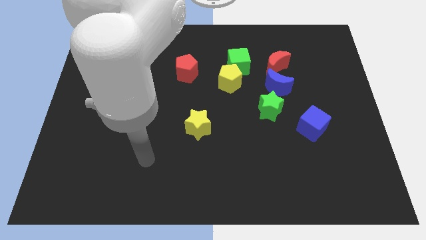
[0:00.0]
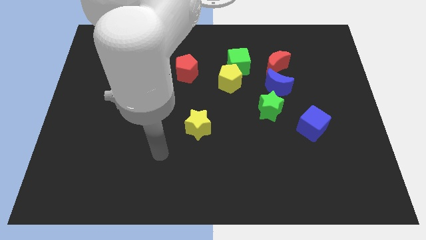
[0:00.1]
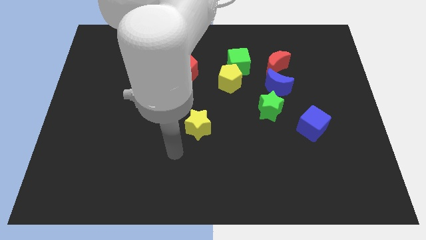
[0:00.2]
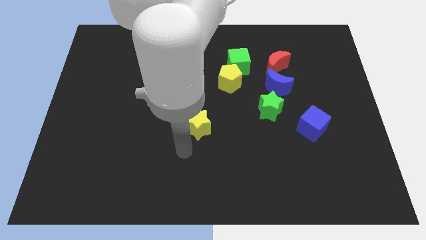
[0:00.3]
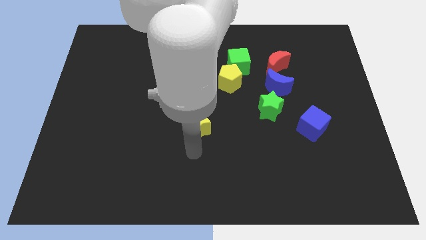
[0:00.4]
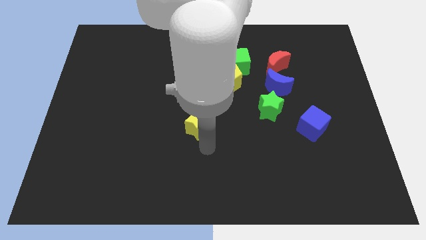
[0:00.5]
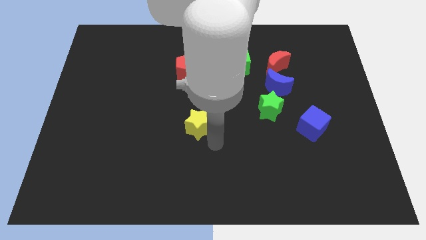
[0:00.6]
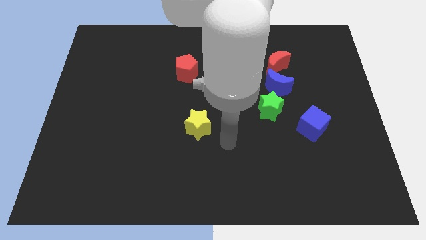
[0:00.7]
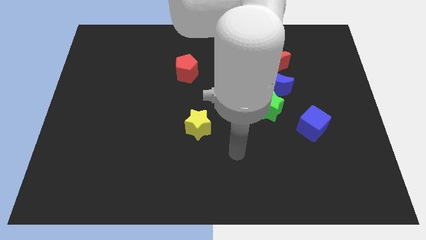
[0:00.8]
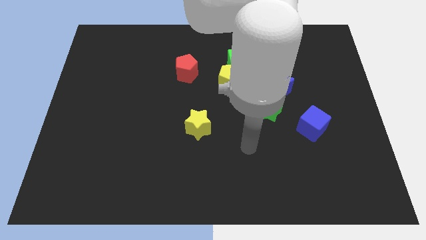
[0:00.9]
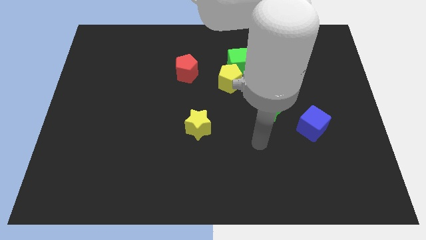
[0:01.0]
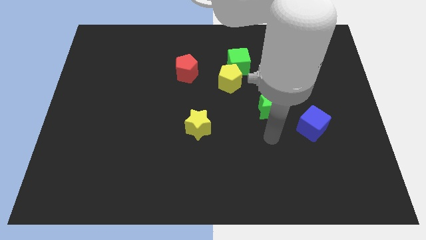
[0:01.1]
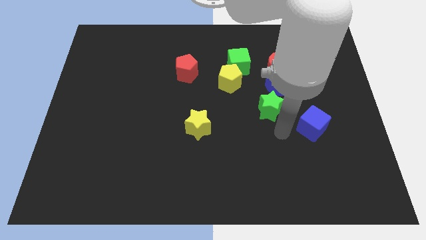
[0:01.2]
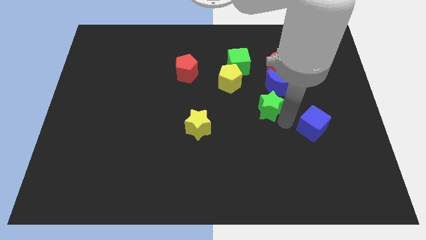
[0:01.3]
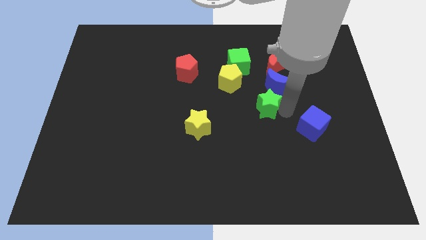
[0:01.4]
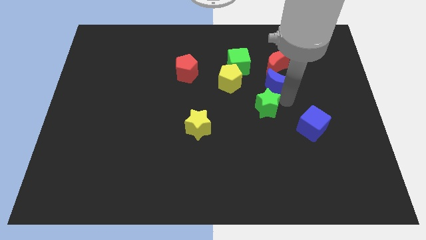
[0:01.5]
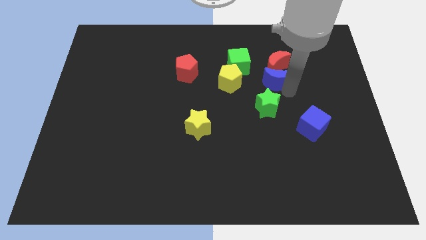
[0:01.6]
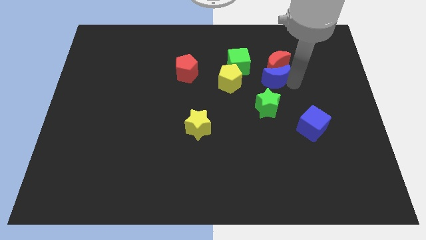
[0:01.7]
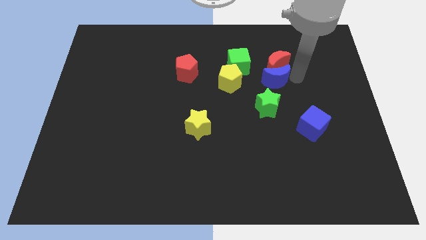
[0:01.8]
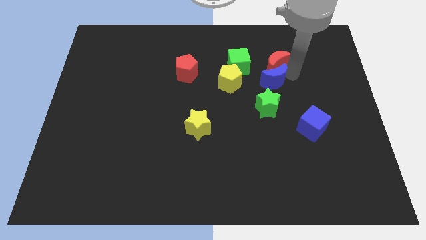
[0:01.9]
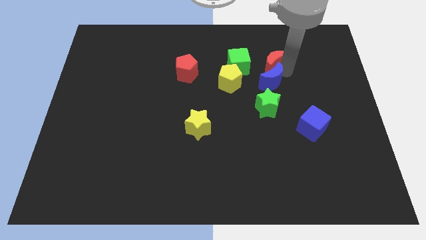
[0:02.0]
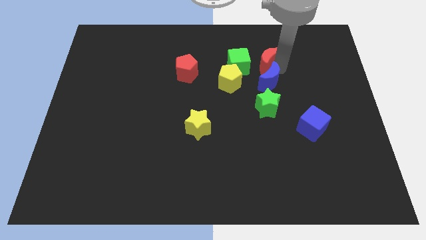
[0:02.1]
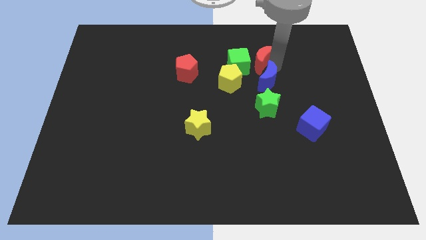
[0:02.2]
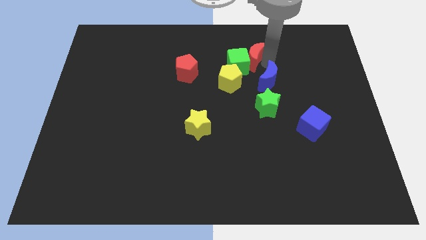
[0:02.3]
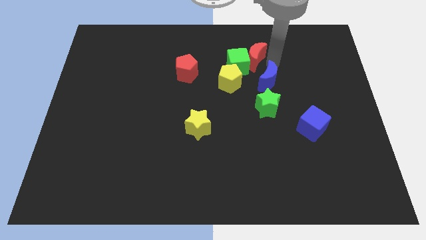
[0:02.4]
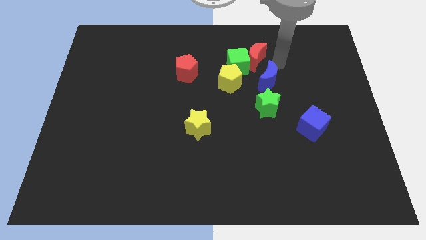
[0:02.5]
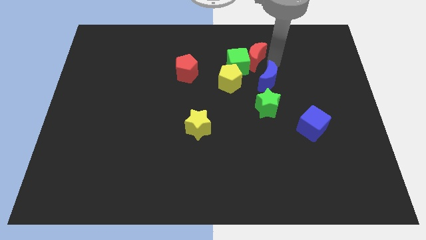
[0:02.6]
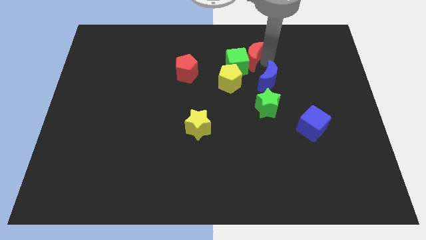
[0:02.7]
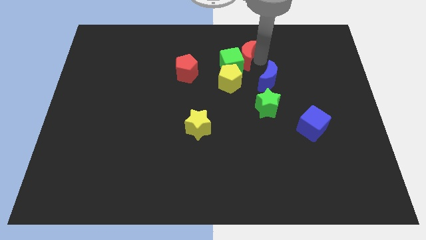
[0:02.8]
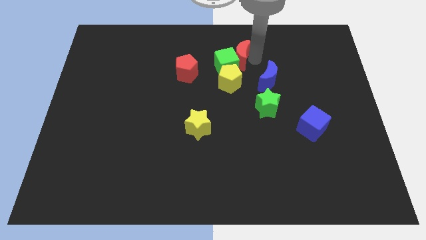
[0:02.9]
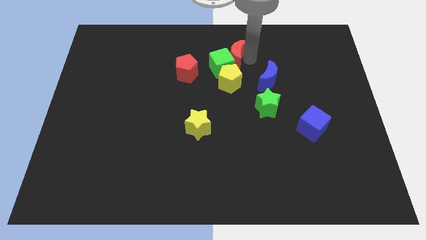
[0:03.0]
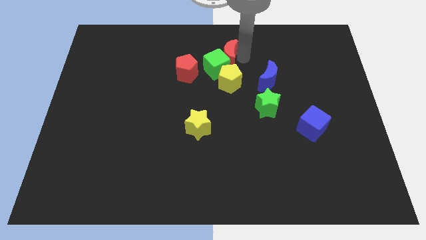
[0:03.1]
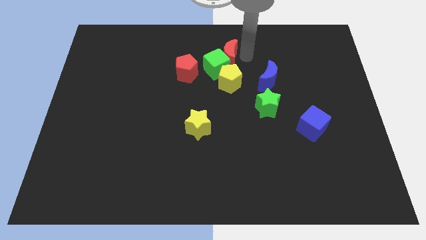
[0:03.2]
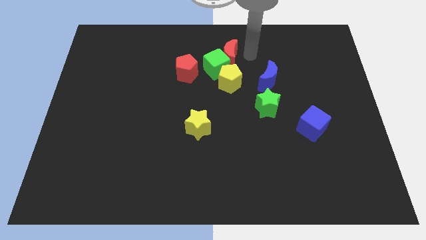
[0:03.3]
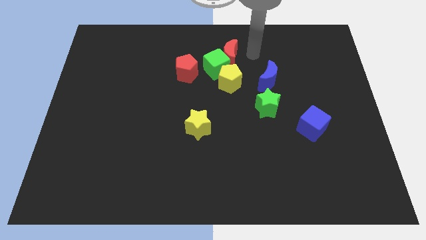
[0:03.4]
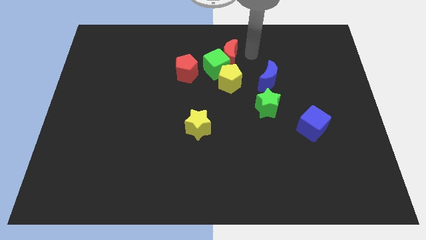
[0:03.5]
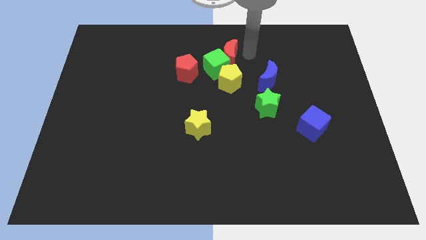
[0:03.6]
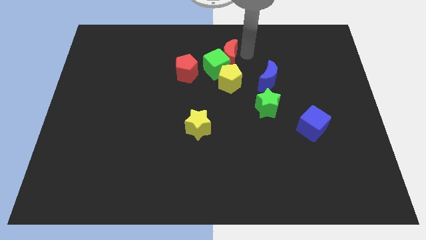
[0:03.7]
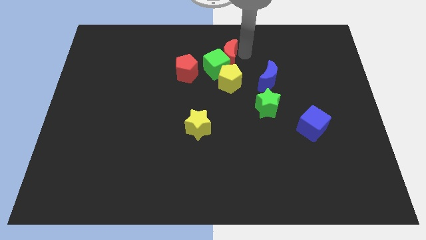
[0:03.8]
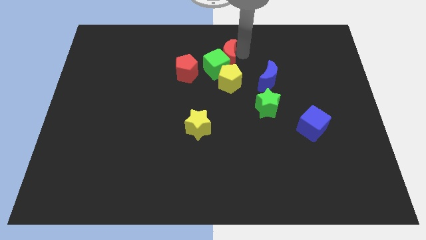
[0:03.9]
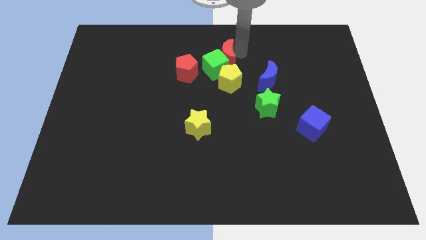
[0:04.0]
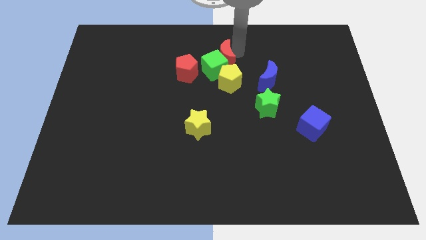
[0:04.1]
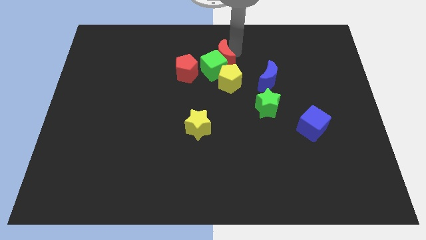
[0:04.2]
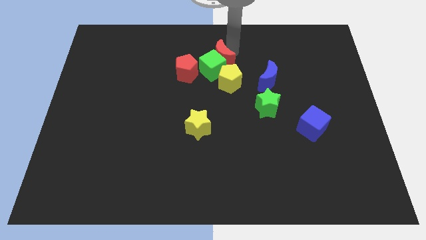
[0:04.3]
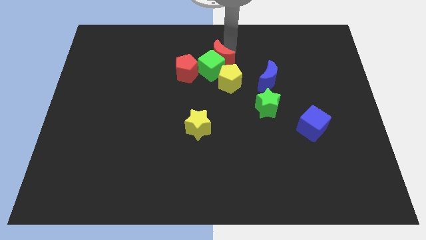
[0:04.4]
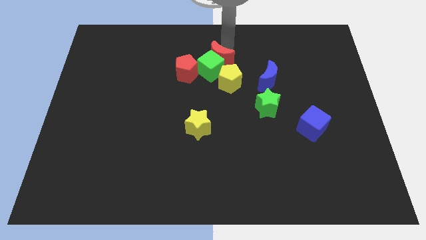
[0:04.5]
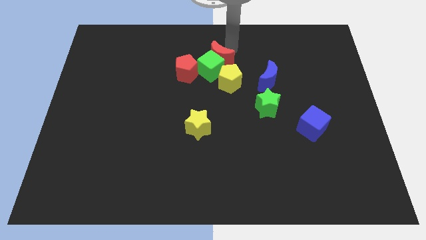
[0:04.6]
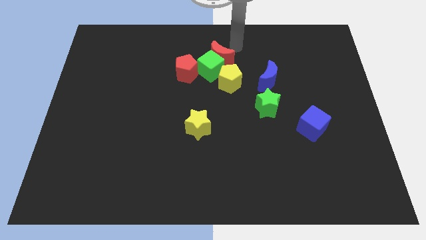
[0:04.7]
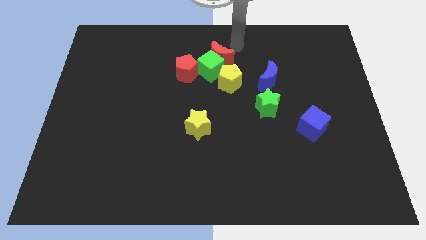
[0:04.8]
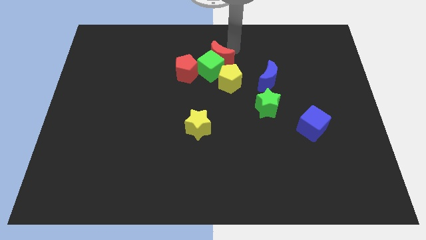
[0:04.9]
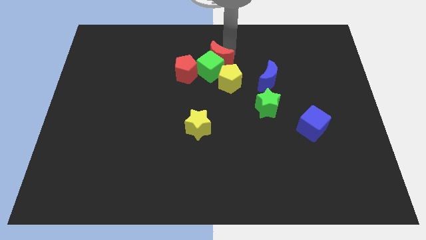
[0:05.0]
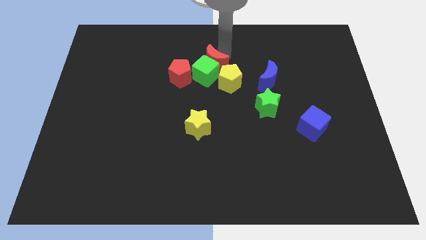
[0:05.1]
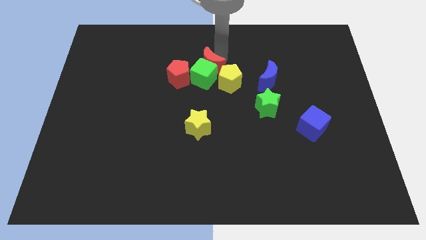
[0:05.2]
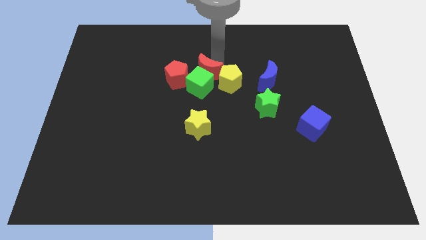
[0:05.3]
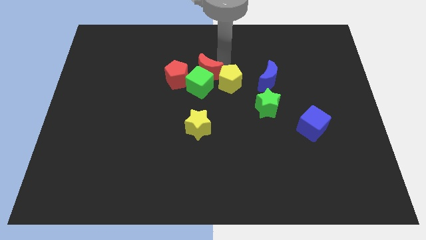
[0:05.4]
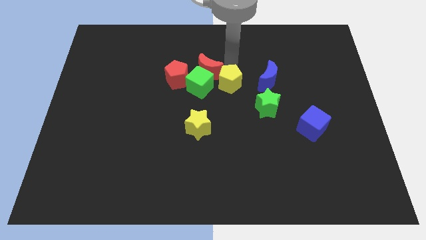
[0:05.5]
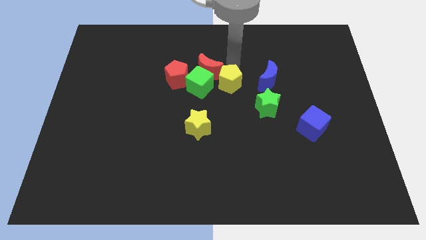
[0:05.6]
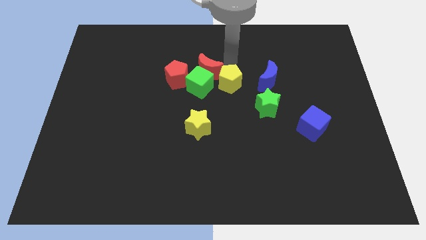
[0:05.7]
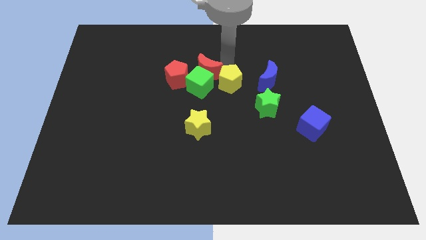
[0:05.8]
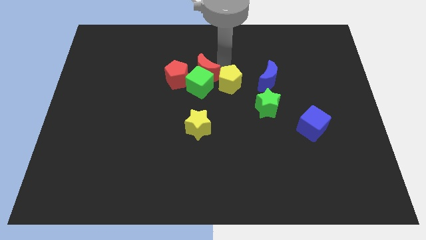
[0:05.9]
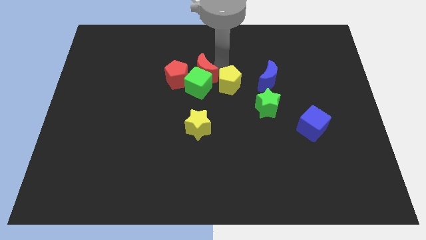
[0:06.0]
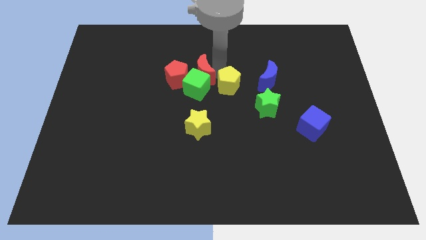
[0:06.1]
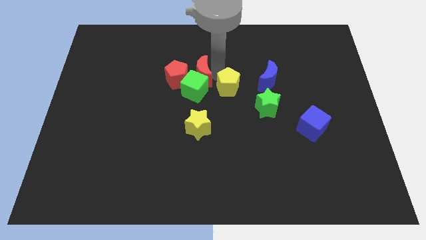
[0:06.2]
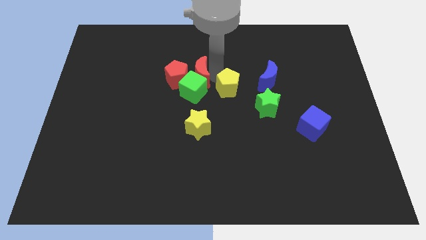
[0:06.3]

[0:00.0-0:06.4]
push the red moon to the red pentagon

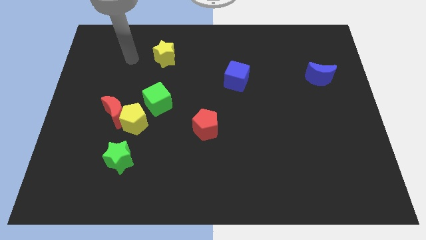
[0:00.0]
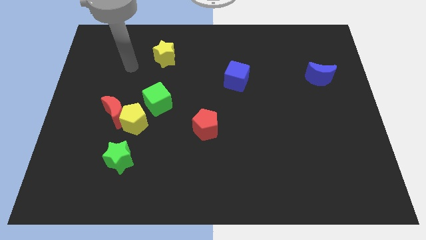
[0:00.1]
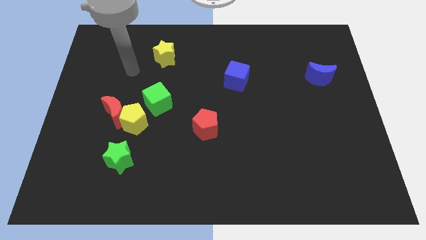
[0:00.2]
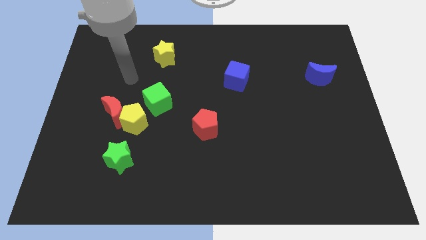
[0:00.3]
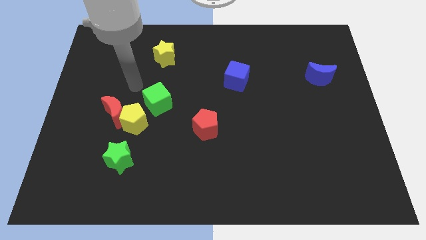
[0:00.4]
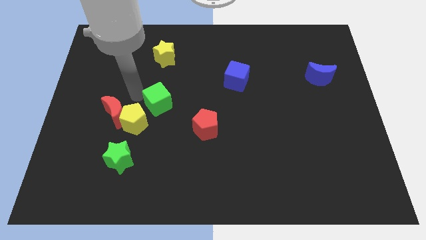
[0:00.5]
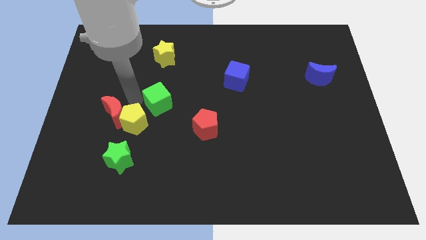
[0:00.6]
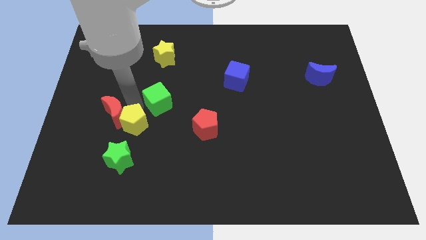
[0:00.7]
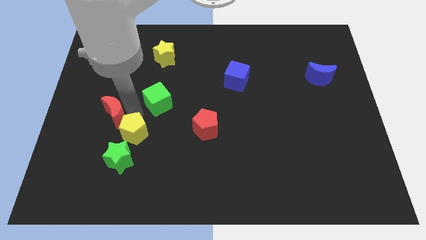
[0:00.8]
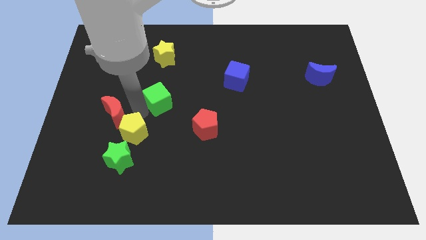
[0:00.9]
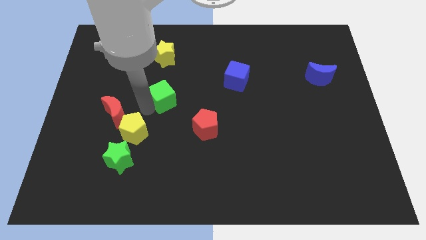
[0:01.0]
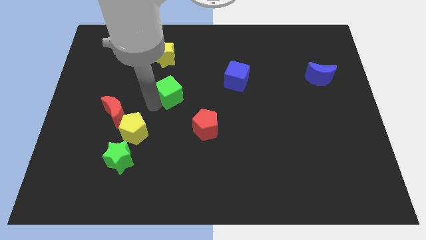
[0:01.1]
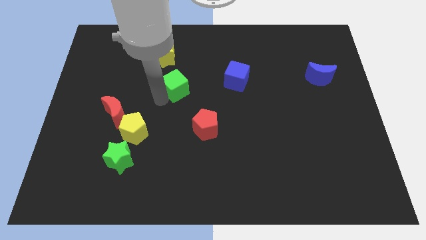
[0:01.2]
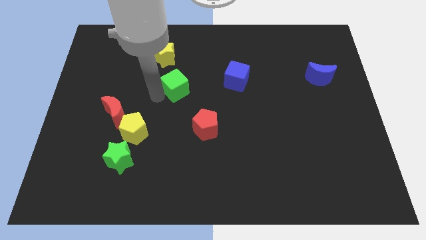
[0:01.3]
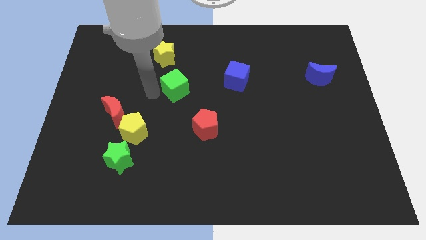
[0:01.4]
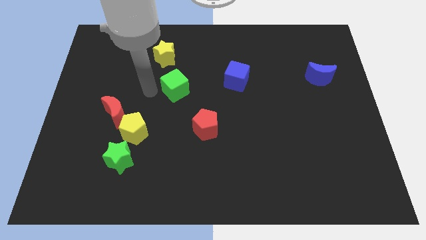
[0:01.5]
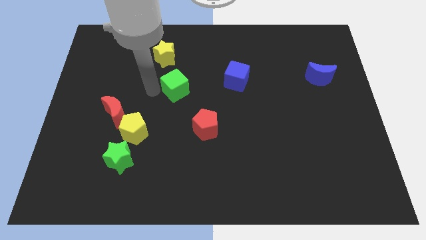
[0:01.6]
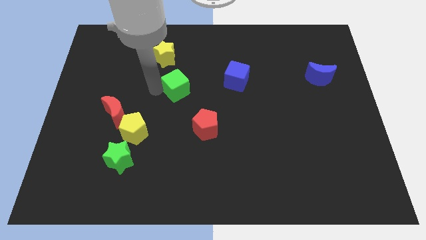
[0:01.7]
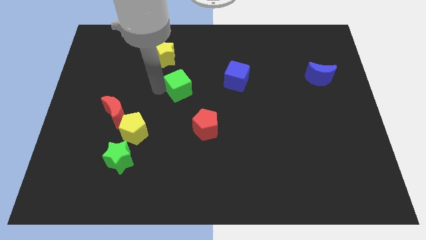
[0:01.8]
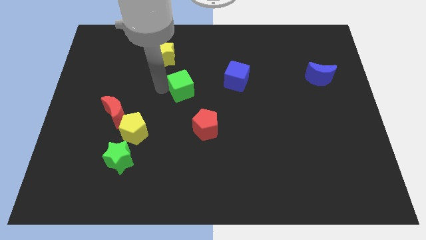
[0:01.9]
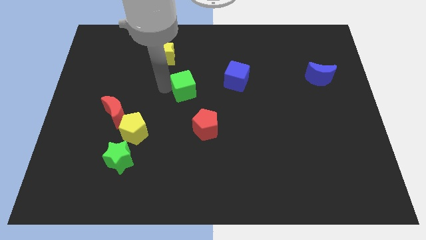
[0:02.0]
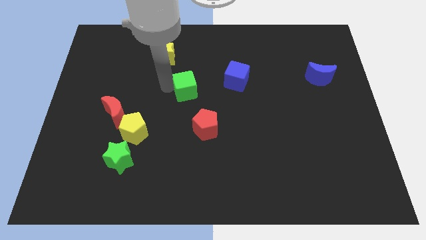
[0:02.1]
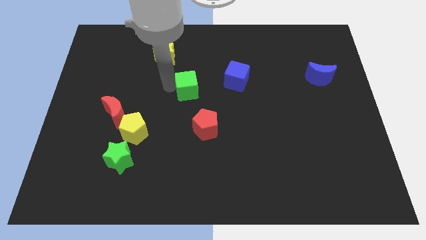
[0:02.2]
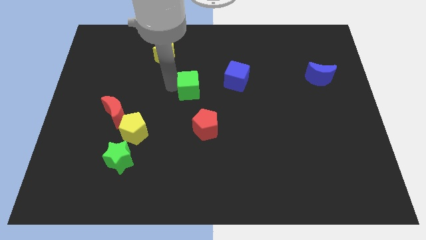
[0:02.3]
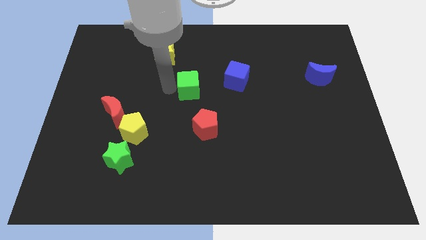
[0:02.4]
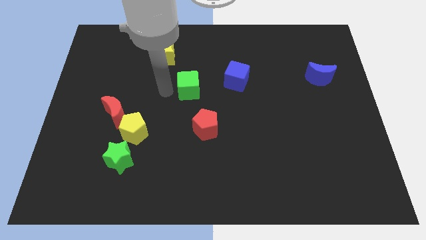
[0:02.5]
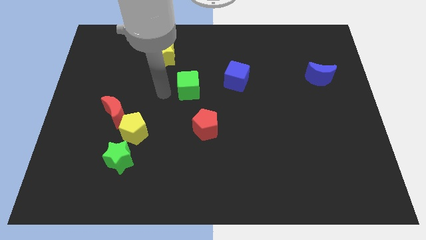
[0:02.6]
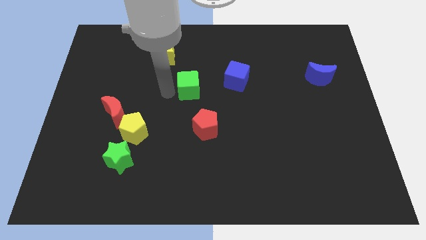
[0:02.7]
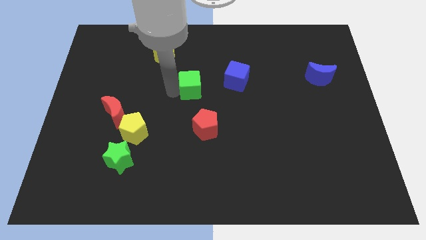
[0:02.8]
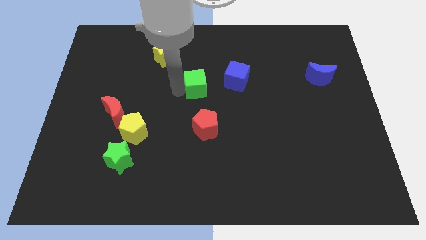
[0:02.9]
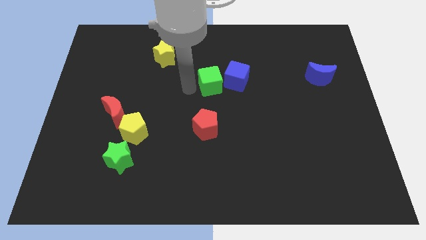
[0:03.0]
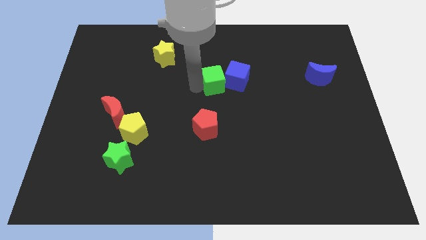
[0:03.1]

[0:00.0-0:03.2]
push the green cube towards the blue cube
